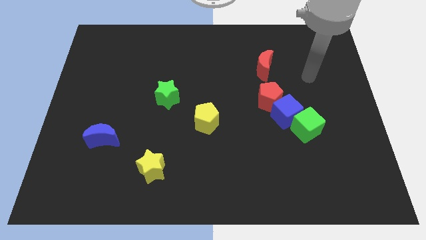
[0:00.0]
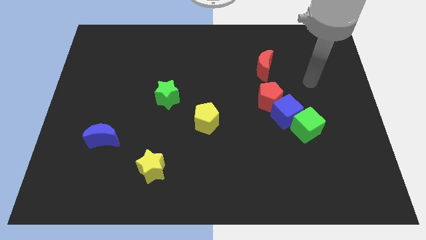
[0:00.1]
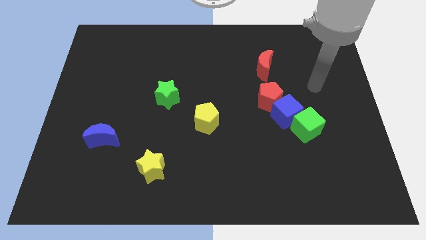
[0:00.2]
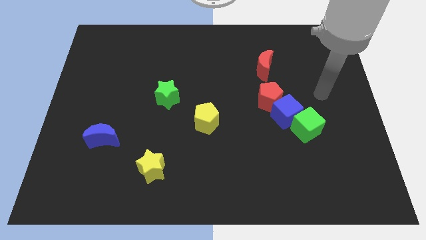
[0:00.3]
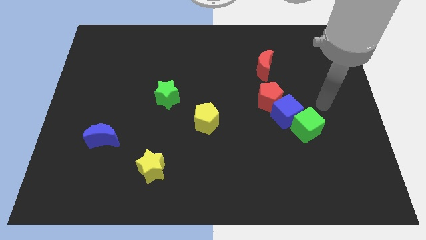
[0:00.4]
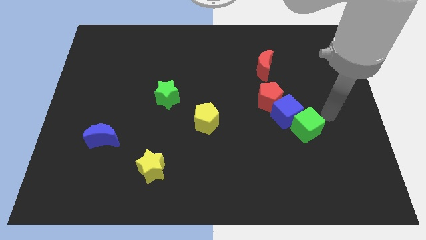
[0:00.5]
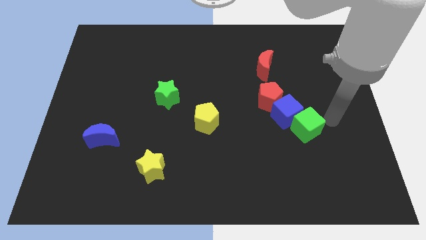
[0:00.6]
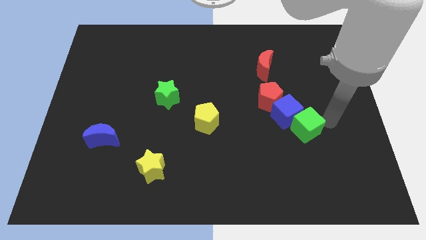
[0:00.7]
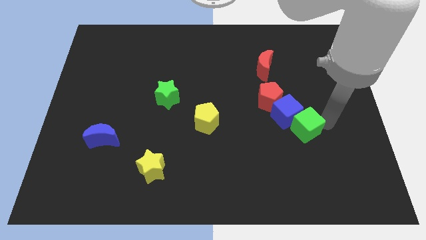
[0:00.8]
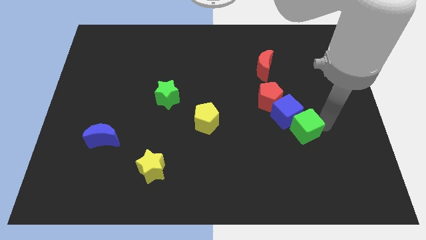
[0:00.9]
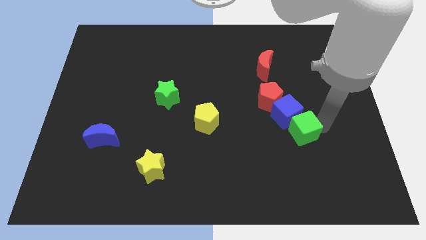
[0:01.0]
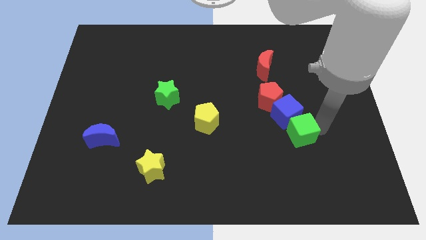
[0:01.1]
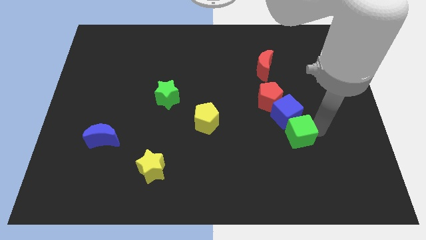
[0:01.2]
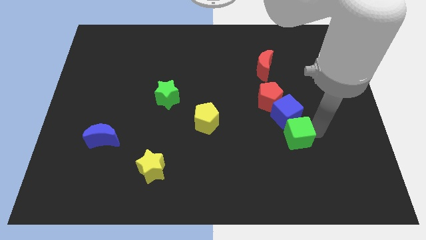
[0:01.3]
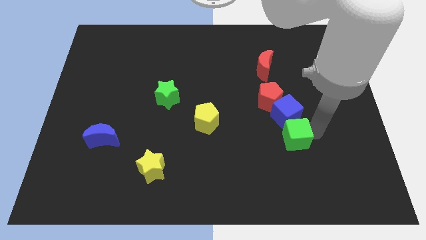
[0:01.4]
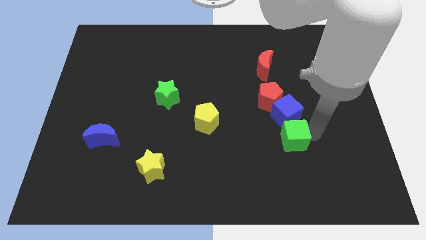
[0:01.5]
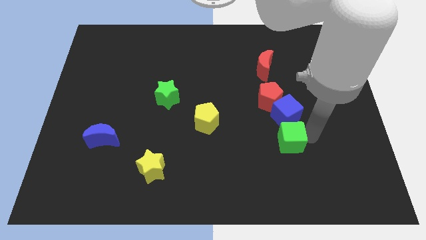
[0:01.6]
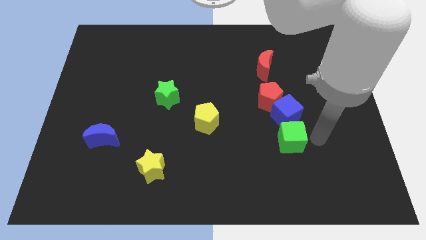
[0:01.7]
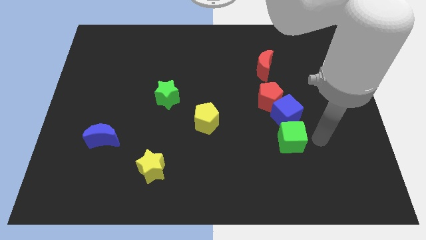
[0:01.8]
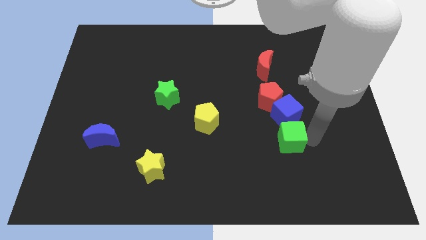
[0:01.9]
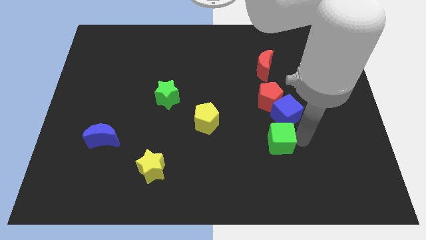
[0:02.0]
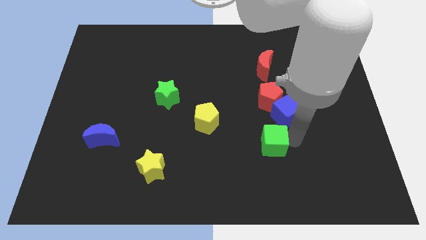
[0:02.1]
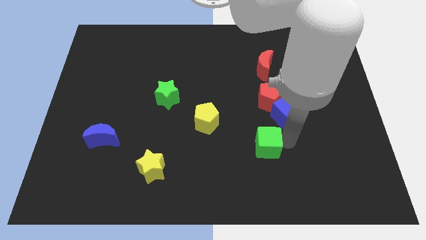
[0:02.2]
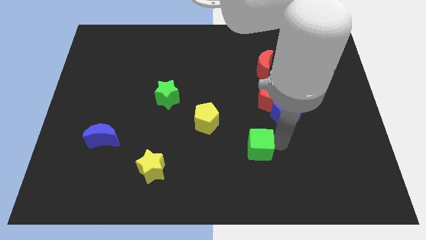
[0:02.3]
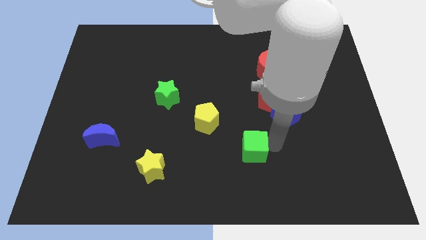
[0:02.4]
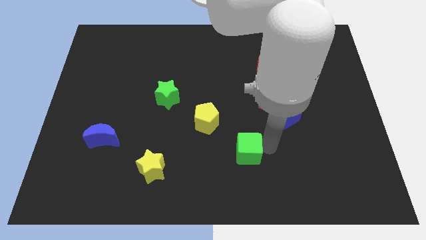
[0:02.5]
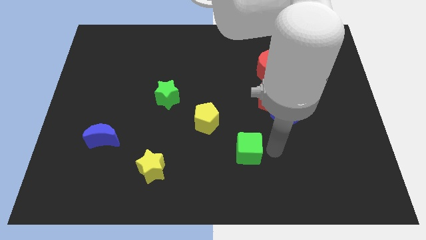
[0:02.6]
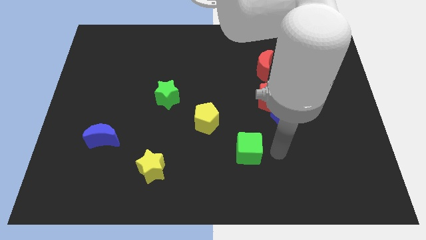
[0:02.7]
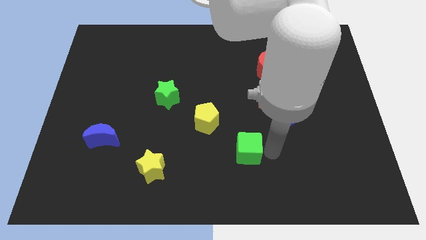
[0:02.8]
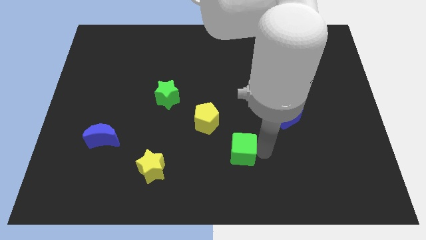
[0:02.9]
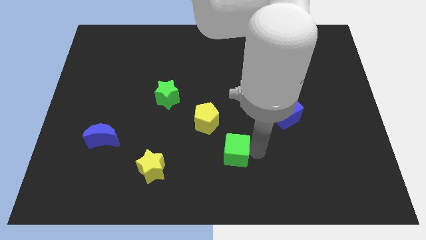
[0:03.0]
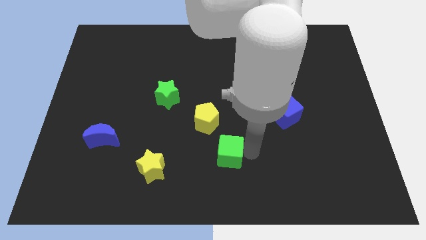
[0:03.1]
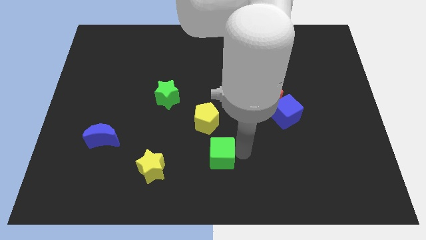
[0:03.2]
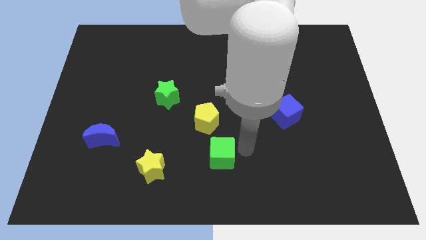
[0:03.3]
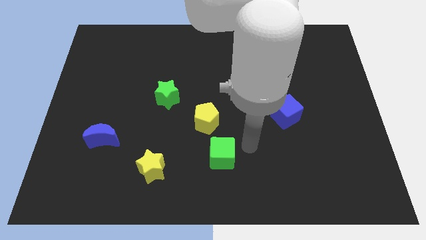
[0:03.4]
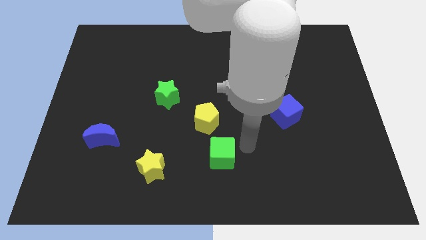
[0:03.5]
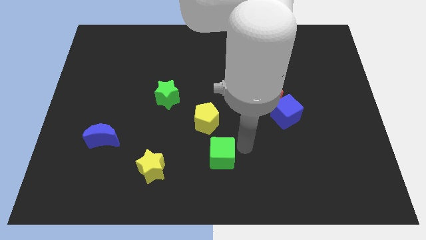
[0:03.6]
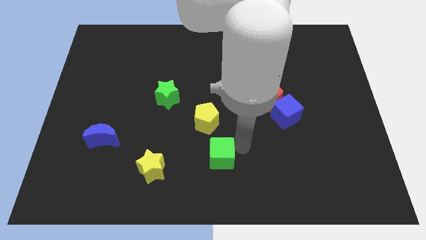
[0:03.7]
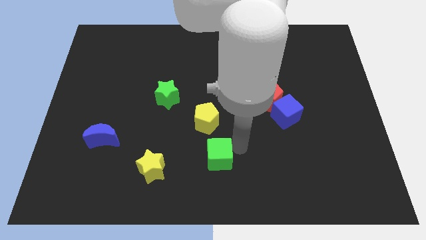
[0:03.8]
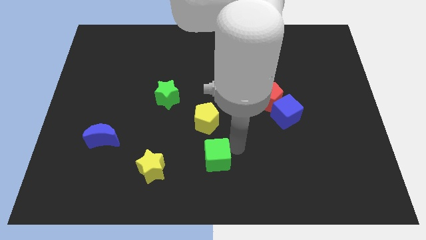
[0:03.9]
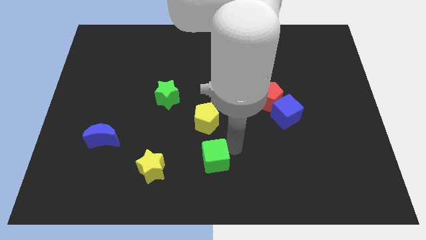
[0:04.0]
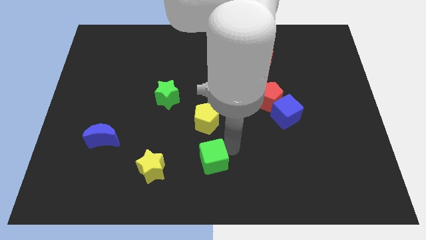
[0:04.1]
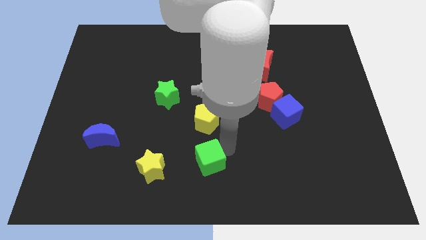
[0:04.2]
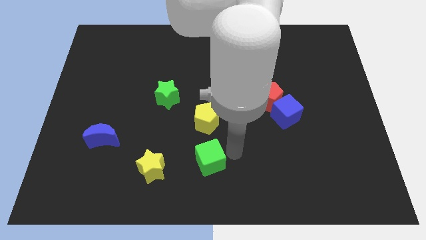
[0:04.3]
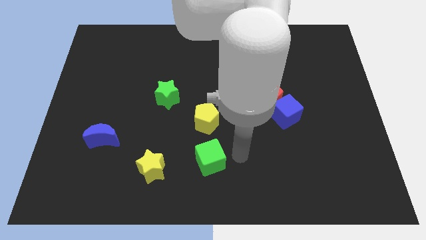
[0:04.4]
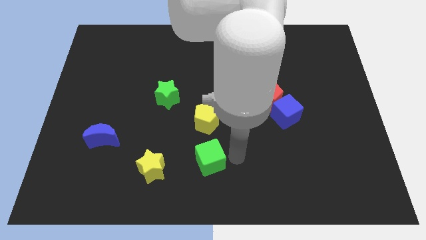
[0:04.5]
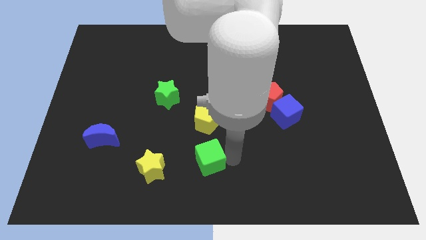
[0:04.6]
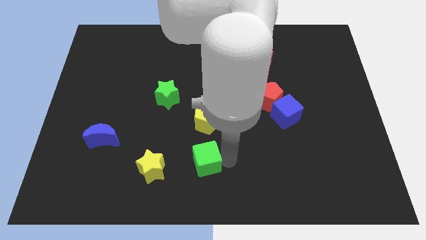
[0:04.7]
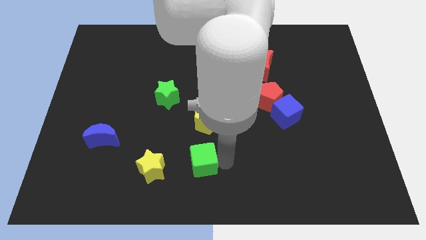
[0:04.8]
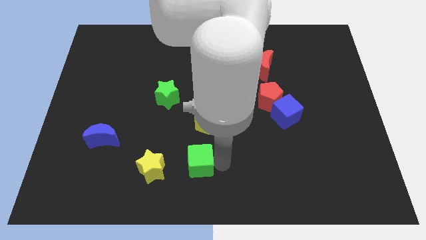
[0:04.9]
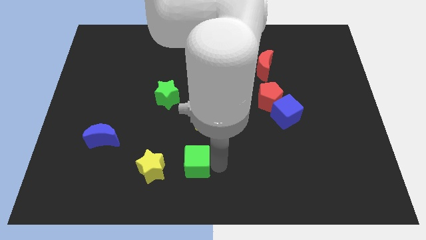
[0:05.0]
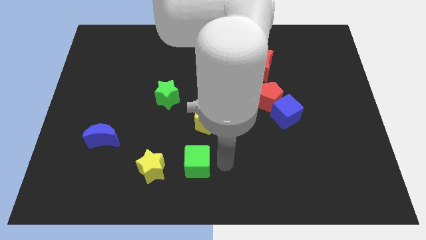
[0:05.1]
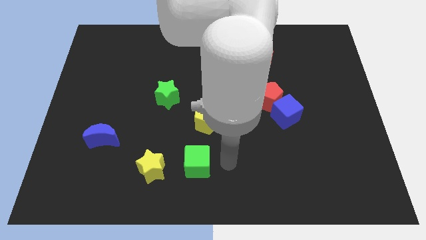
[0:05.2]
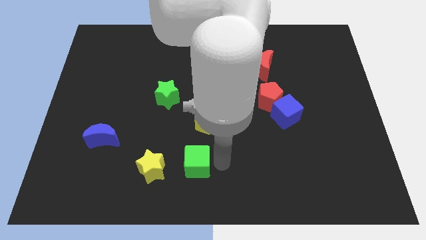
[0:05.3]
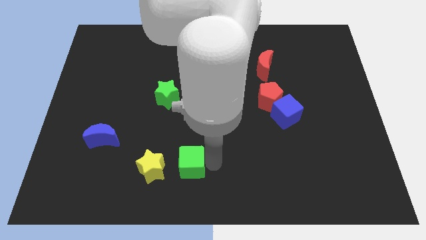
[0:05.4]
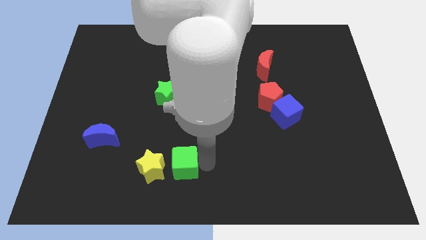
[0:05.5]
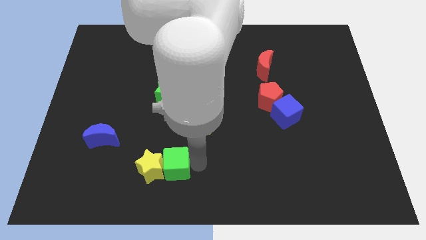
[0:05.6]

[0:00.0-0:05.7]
move the green cube close to the yellow star
